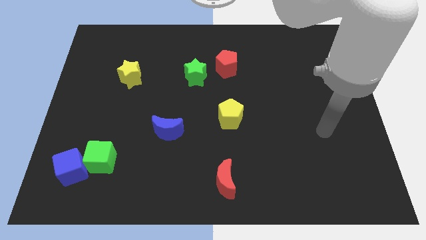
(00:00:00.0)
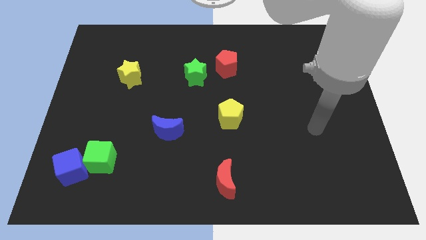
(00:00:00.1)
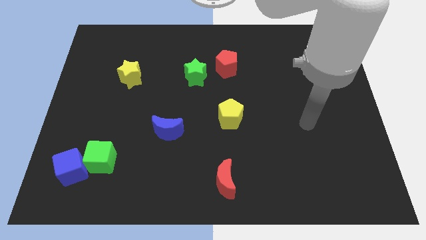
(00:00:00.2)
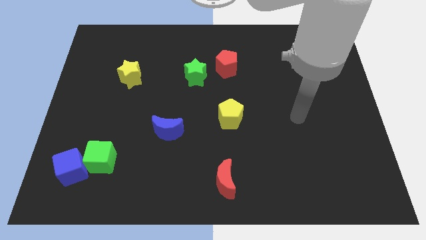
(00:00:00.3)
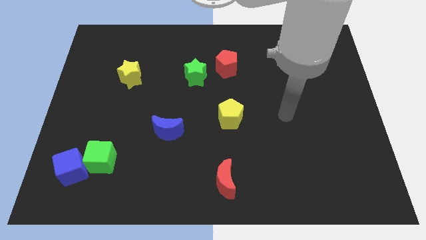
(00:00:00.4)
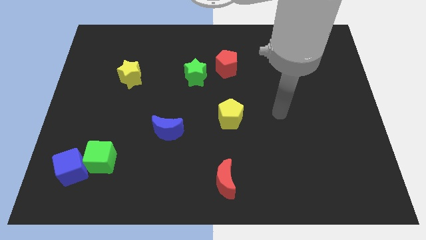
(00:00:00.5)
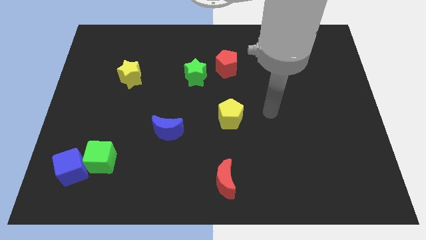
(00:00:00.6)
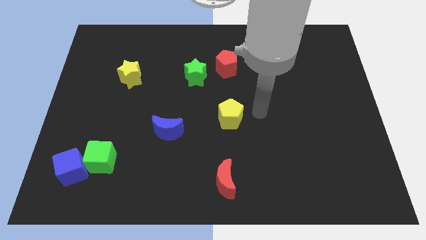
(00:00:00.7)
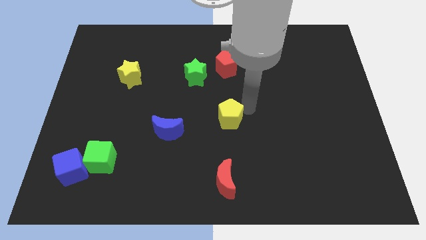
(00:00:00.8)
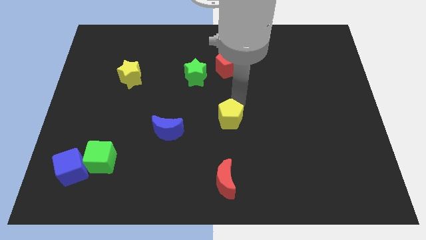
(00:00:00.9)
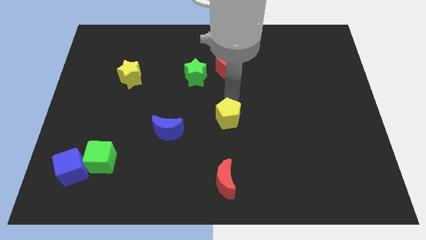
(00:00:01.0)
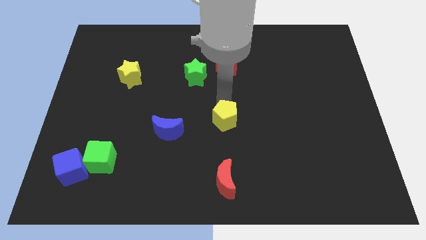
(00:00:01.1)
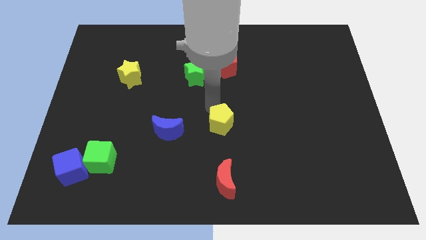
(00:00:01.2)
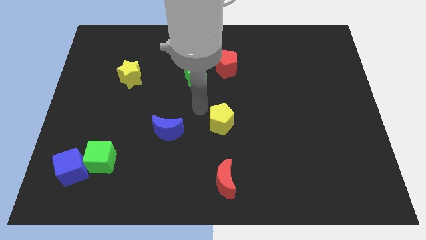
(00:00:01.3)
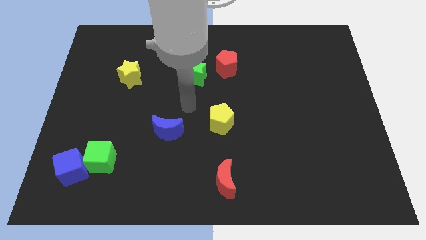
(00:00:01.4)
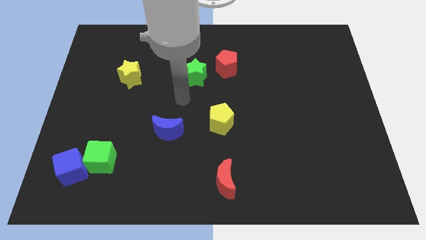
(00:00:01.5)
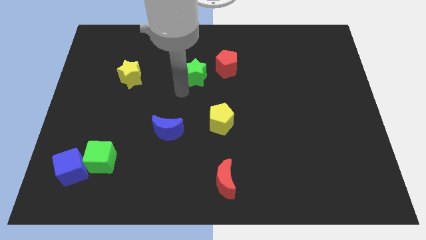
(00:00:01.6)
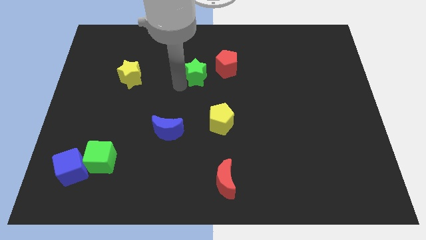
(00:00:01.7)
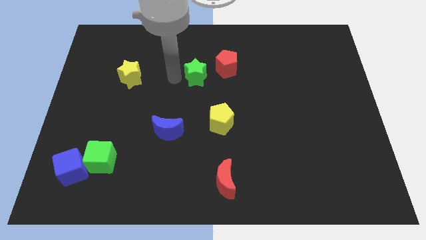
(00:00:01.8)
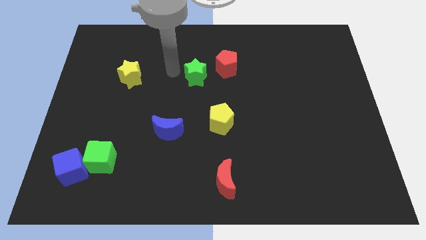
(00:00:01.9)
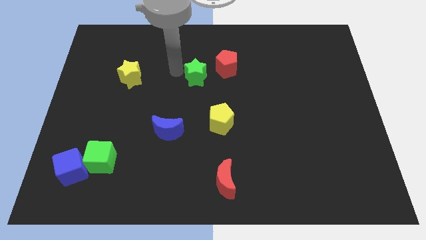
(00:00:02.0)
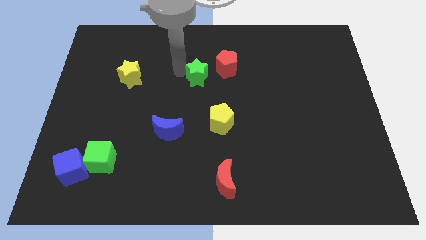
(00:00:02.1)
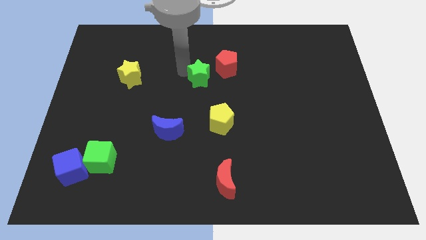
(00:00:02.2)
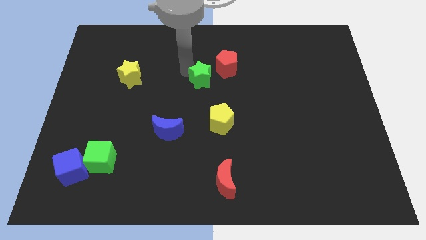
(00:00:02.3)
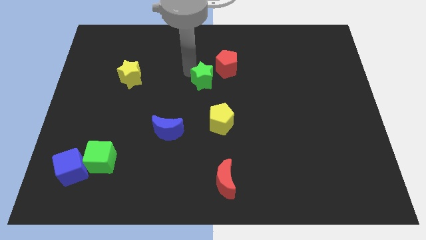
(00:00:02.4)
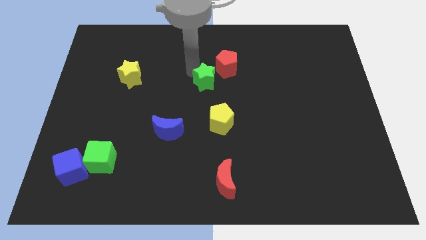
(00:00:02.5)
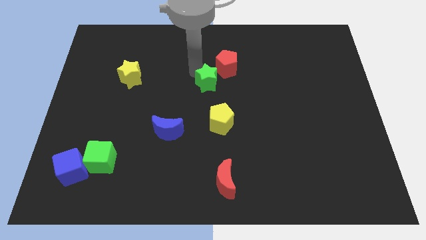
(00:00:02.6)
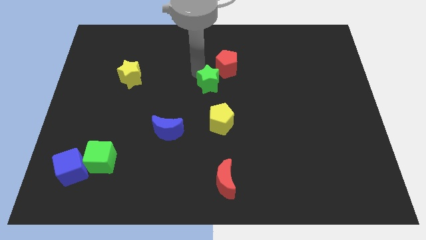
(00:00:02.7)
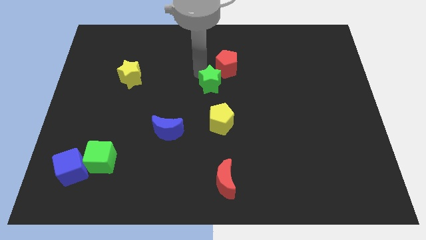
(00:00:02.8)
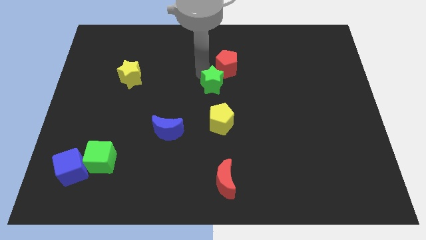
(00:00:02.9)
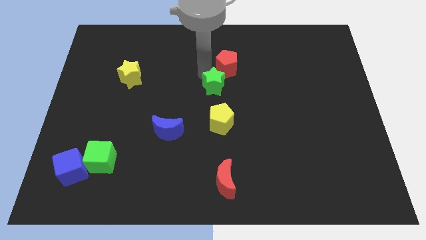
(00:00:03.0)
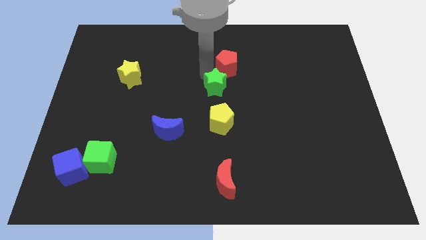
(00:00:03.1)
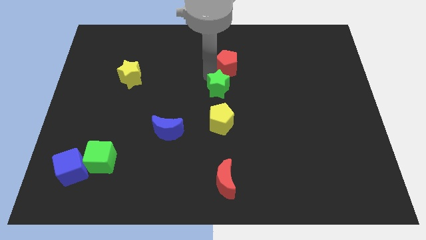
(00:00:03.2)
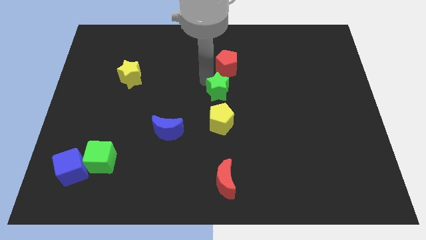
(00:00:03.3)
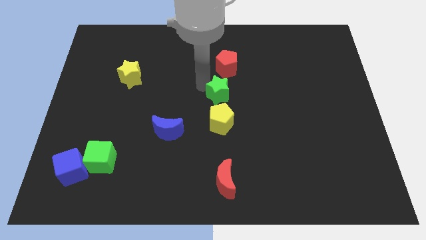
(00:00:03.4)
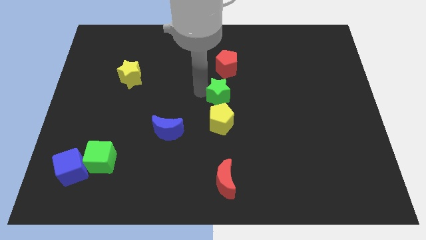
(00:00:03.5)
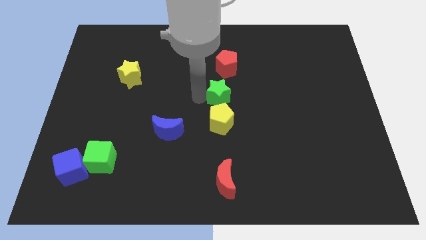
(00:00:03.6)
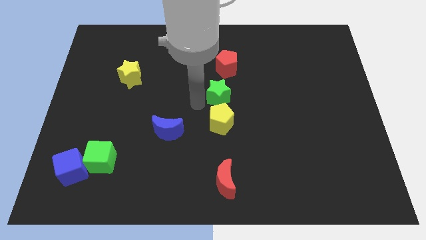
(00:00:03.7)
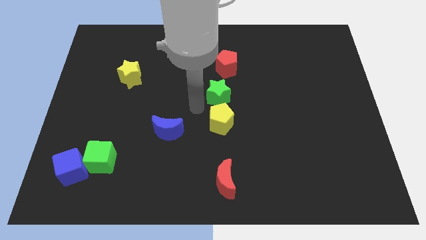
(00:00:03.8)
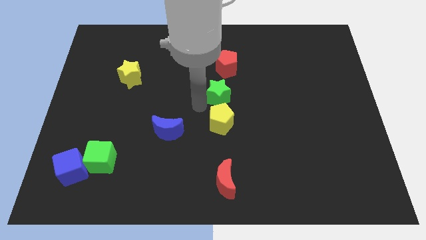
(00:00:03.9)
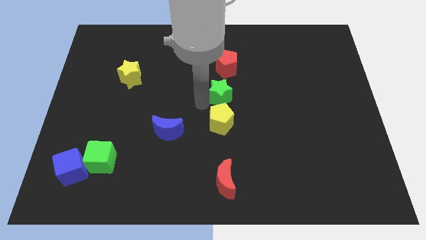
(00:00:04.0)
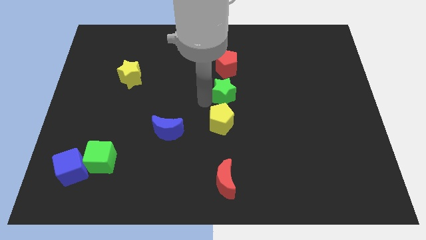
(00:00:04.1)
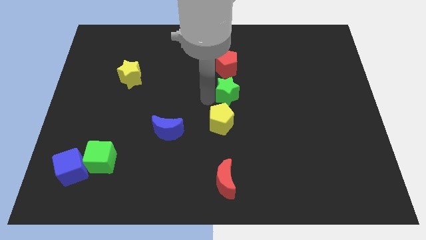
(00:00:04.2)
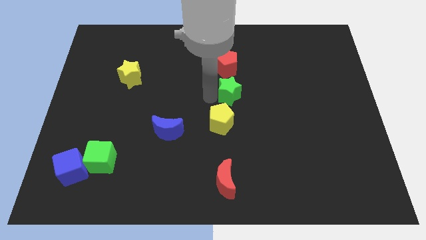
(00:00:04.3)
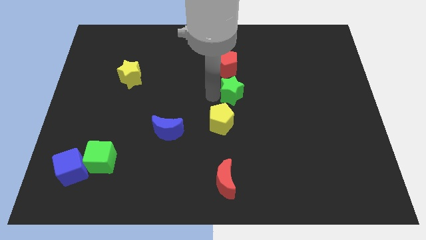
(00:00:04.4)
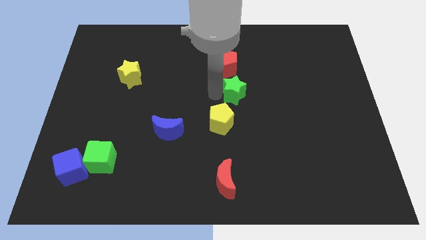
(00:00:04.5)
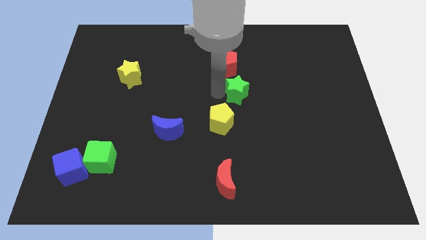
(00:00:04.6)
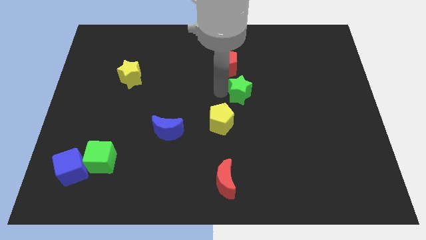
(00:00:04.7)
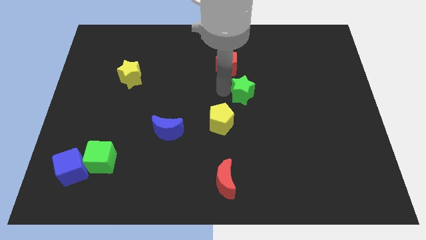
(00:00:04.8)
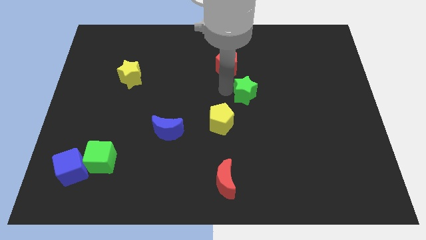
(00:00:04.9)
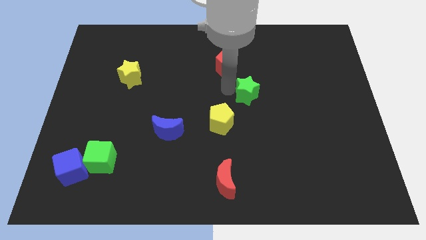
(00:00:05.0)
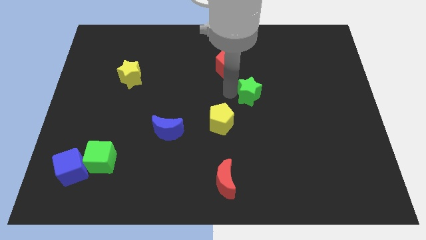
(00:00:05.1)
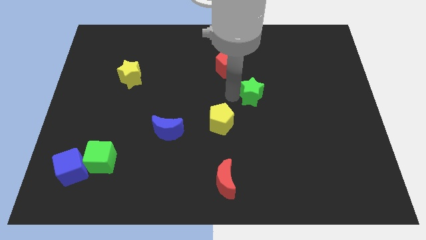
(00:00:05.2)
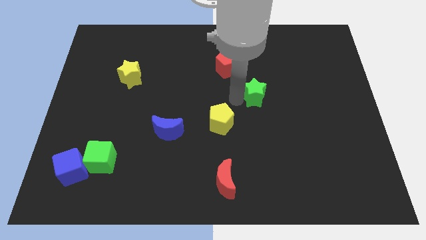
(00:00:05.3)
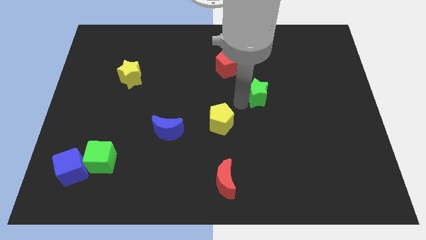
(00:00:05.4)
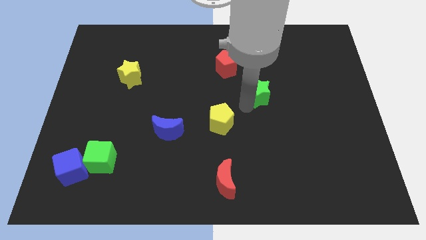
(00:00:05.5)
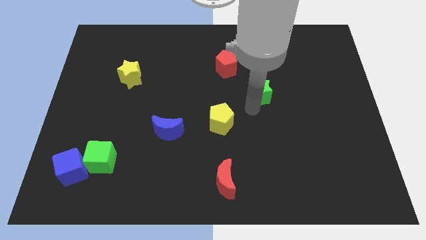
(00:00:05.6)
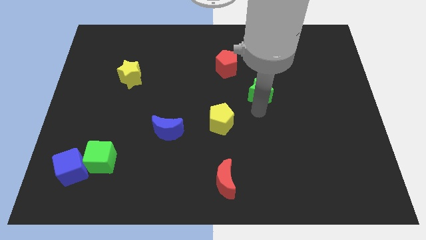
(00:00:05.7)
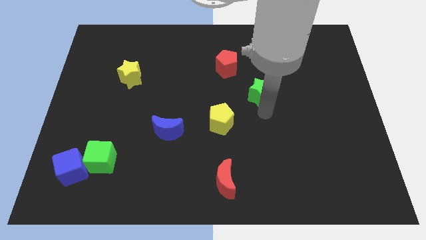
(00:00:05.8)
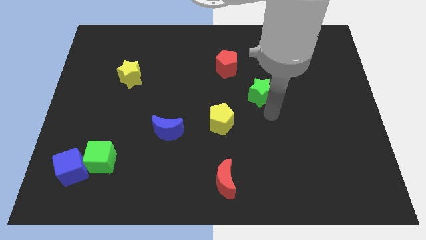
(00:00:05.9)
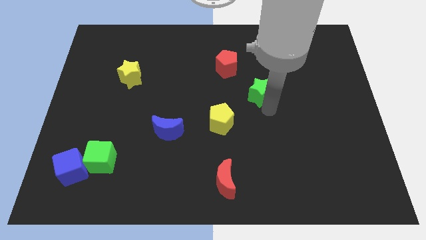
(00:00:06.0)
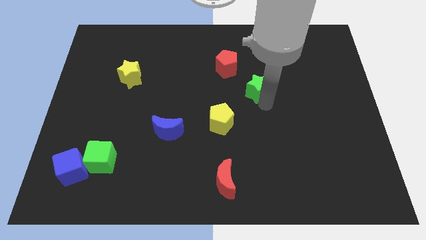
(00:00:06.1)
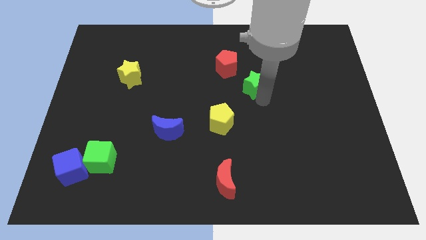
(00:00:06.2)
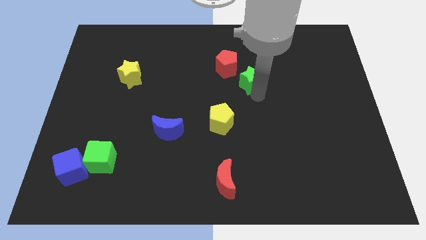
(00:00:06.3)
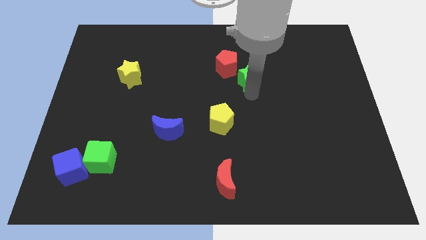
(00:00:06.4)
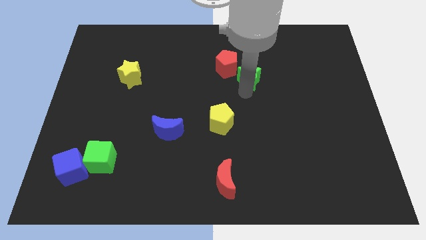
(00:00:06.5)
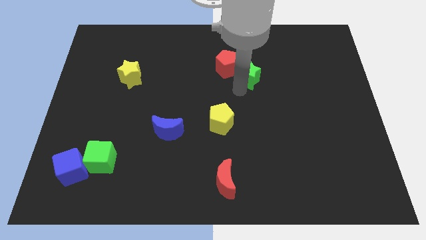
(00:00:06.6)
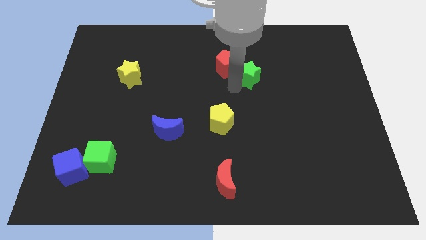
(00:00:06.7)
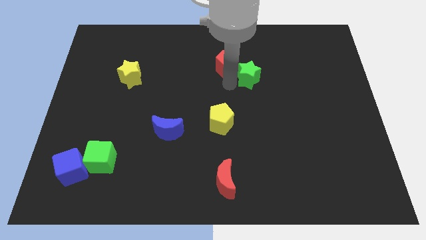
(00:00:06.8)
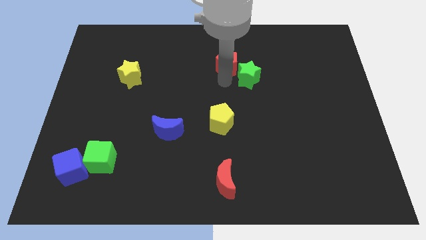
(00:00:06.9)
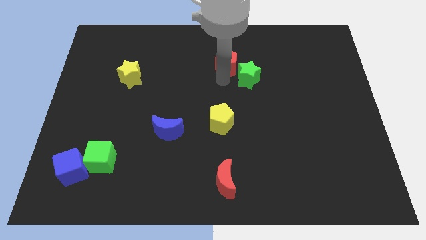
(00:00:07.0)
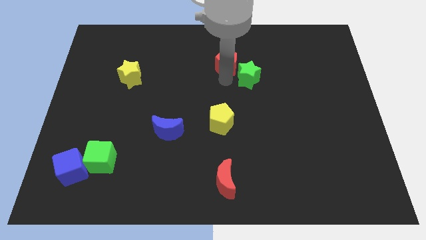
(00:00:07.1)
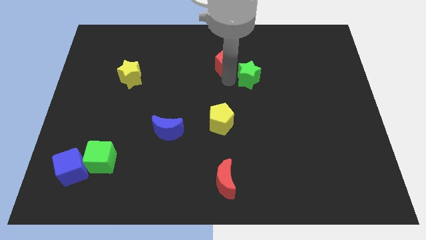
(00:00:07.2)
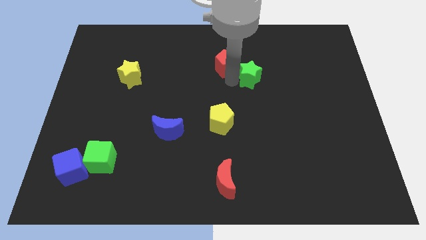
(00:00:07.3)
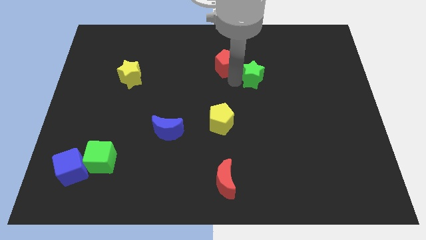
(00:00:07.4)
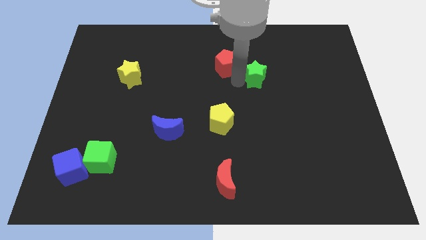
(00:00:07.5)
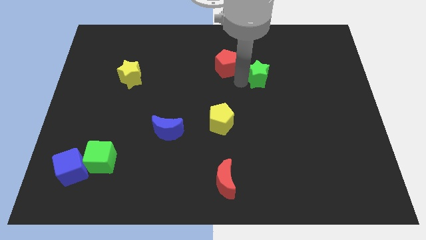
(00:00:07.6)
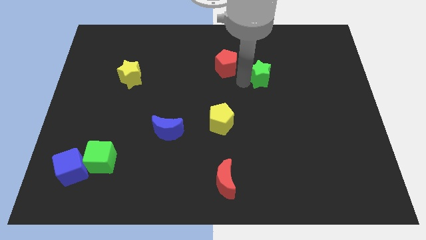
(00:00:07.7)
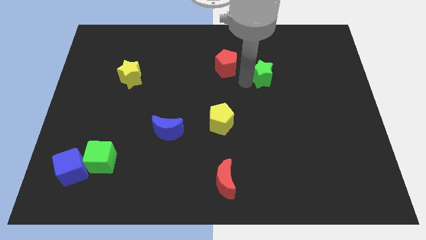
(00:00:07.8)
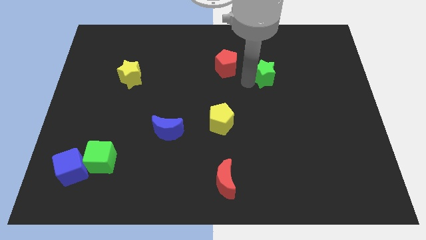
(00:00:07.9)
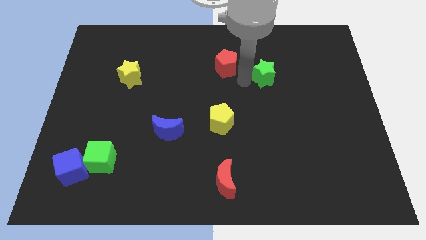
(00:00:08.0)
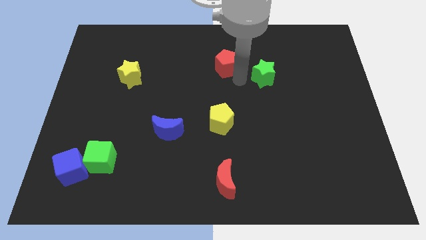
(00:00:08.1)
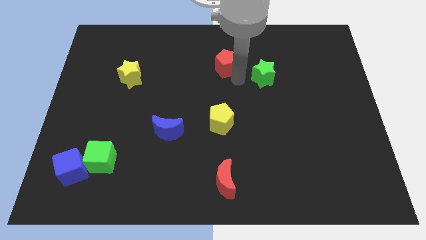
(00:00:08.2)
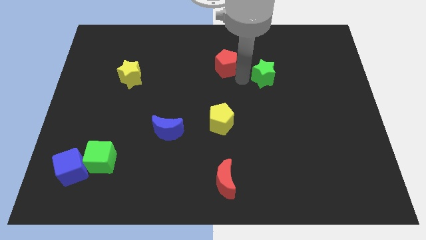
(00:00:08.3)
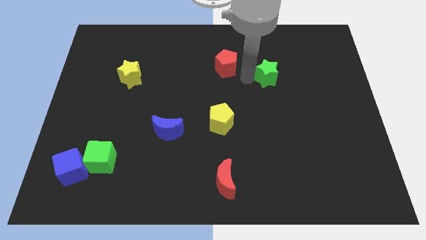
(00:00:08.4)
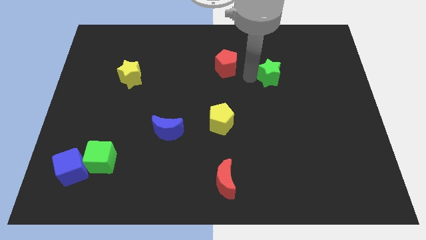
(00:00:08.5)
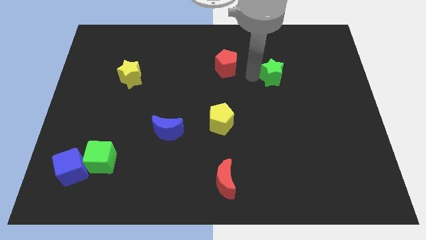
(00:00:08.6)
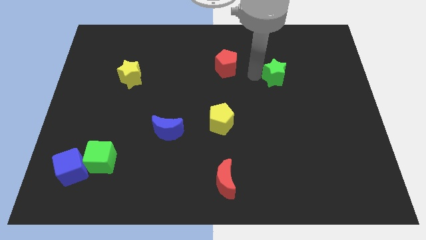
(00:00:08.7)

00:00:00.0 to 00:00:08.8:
slide the green star right
